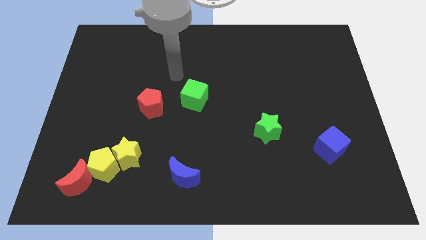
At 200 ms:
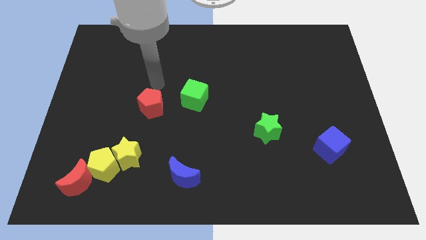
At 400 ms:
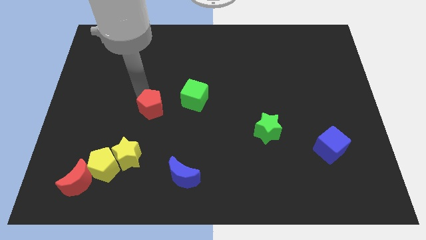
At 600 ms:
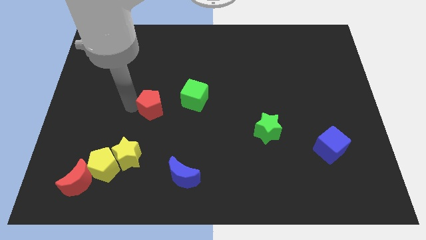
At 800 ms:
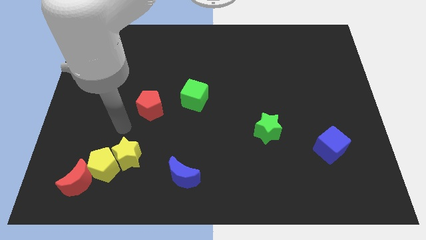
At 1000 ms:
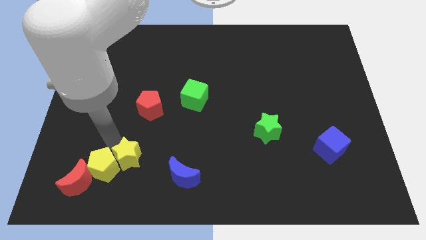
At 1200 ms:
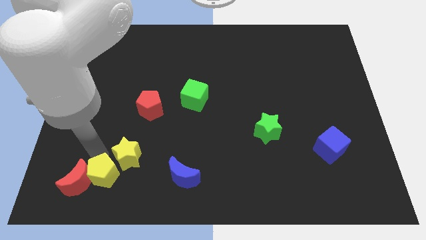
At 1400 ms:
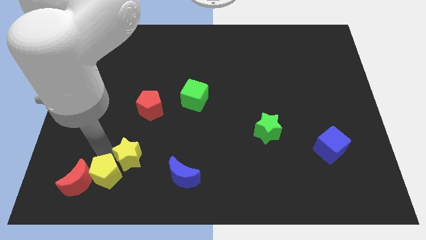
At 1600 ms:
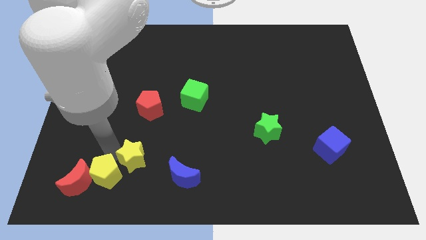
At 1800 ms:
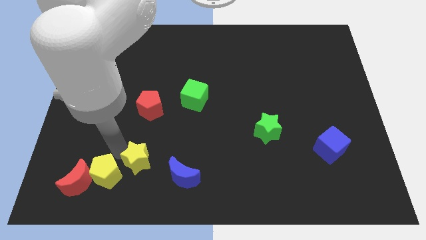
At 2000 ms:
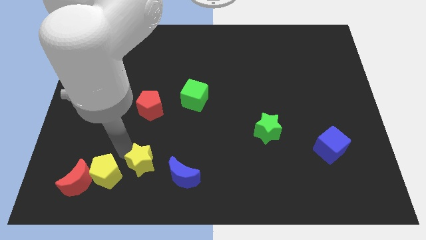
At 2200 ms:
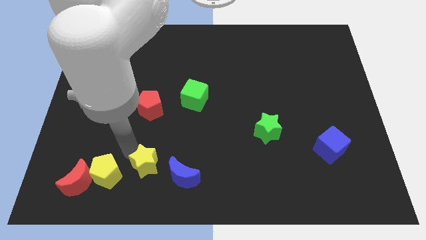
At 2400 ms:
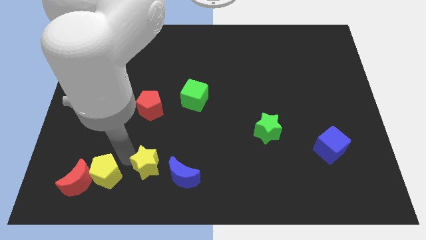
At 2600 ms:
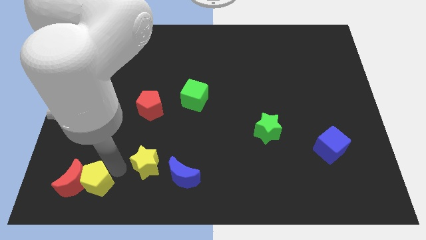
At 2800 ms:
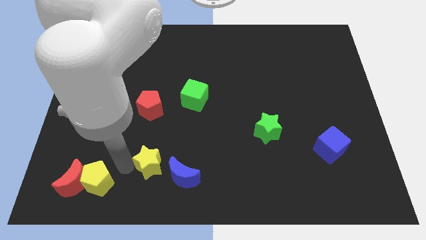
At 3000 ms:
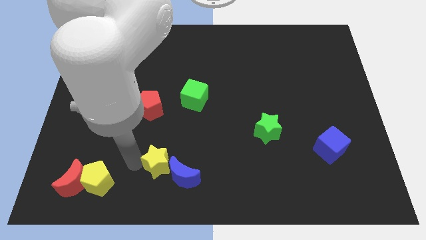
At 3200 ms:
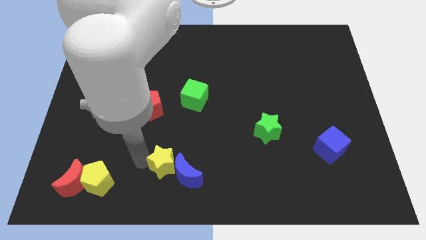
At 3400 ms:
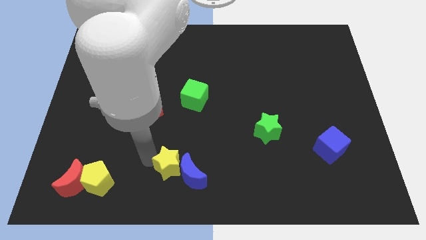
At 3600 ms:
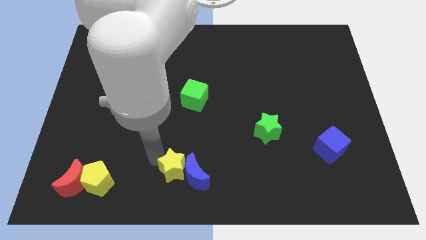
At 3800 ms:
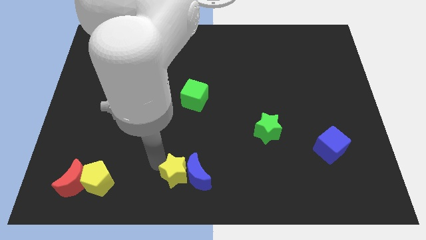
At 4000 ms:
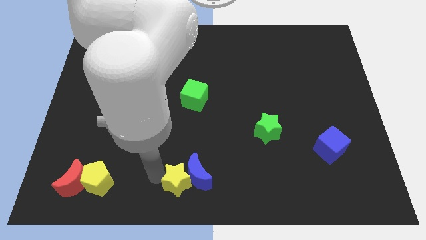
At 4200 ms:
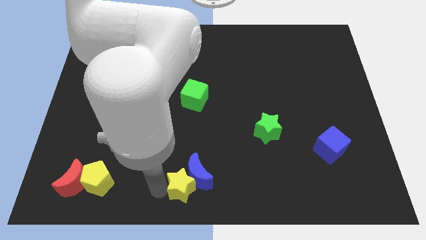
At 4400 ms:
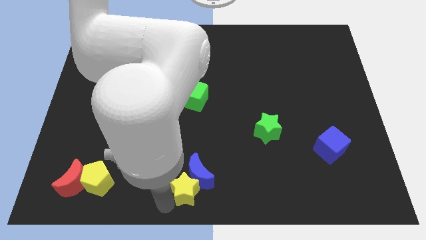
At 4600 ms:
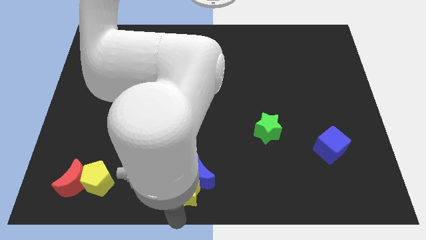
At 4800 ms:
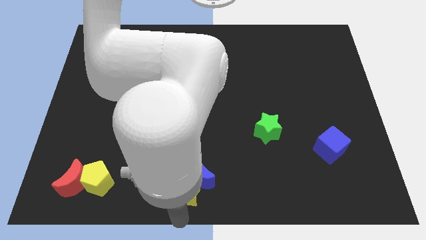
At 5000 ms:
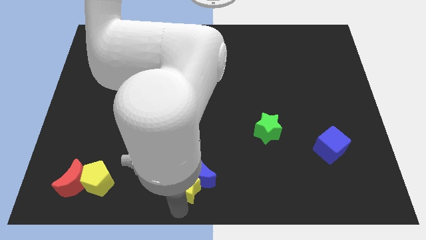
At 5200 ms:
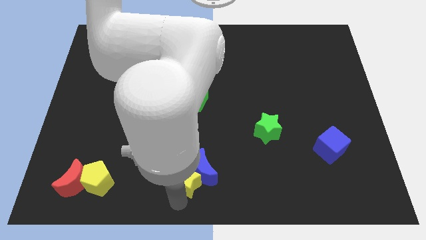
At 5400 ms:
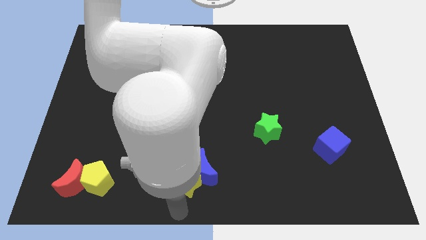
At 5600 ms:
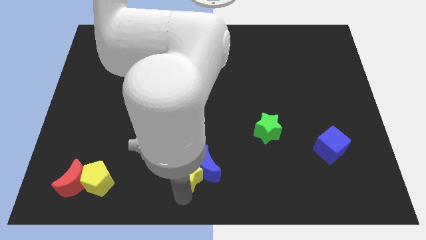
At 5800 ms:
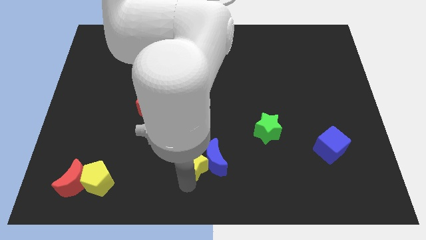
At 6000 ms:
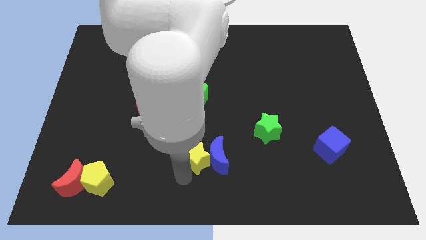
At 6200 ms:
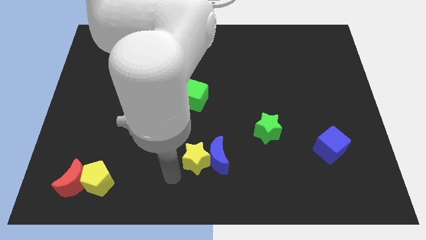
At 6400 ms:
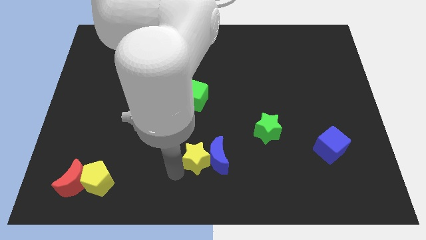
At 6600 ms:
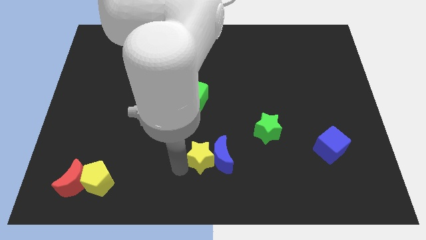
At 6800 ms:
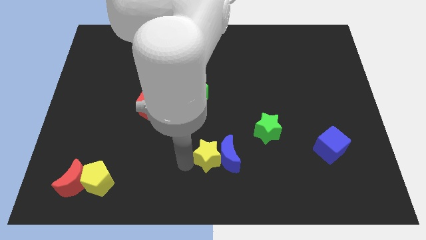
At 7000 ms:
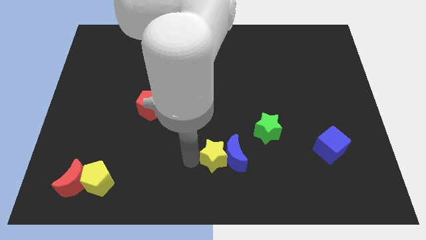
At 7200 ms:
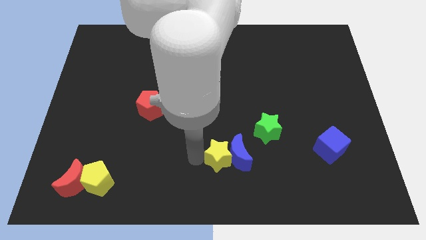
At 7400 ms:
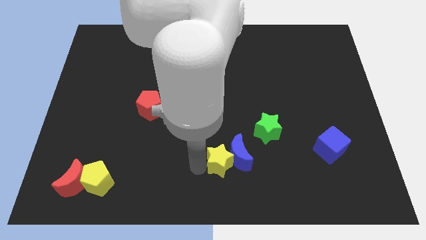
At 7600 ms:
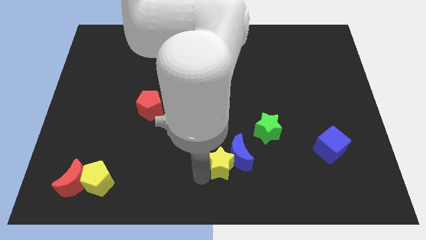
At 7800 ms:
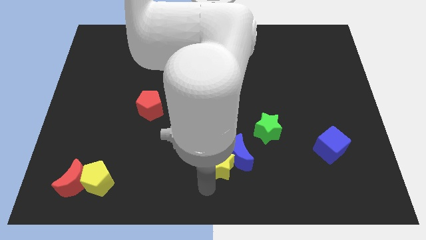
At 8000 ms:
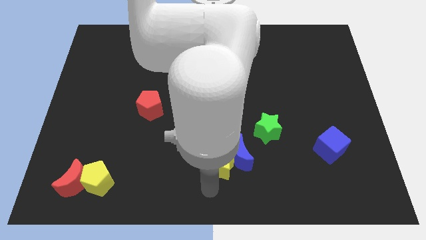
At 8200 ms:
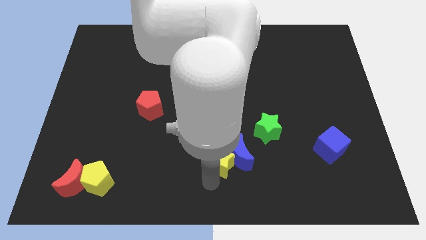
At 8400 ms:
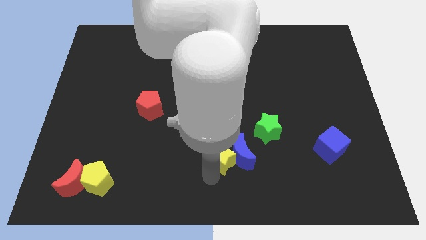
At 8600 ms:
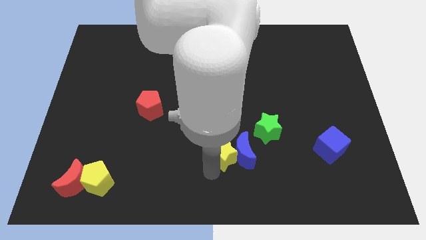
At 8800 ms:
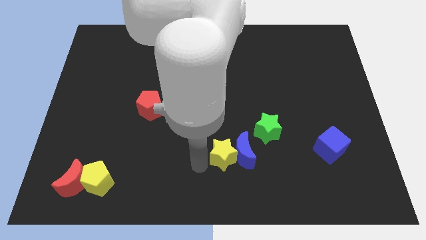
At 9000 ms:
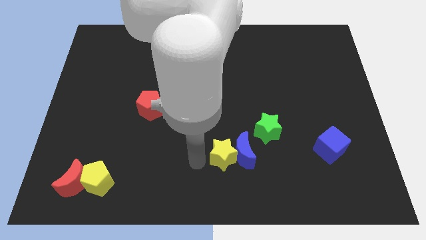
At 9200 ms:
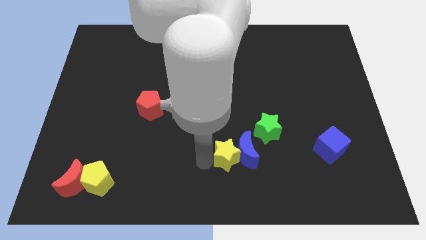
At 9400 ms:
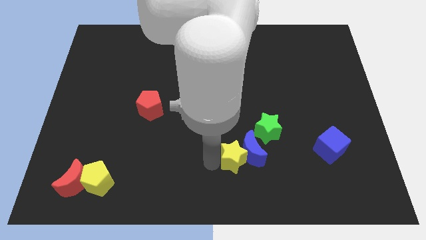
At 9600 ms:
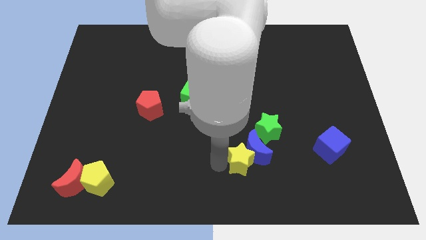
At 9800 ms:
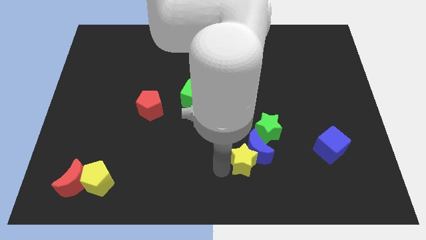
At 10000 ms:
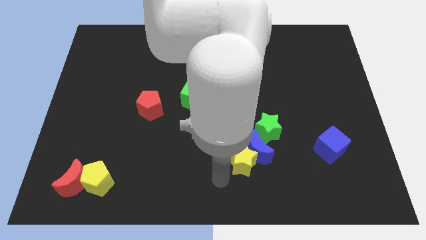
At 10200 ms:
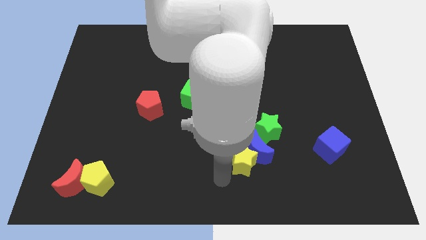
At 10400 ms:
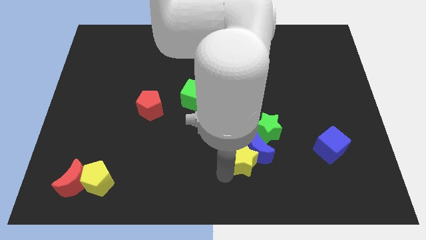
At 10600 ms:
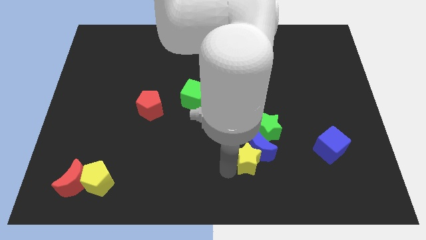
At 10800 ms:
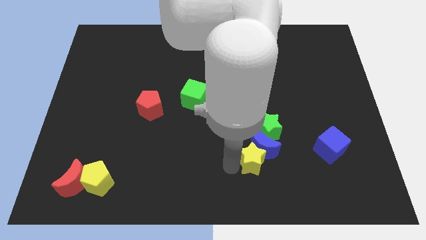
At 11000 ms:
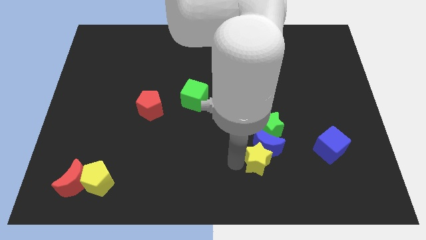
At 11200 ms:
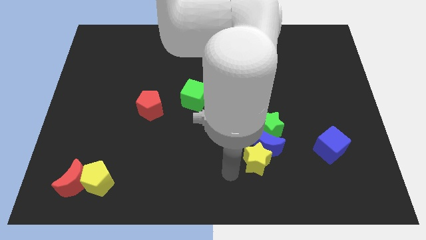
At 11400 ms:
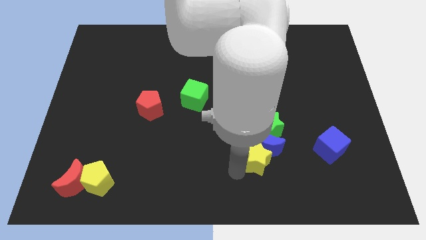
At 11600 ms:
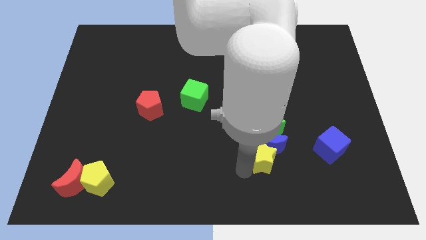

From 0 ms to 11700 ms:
slide the yellow star left of the blue cube

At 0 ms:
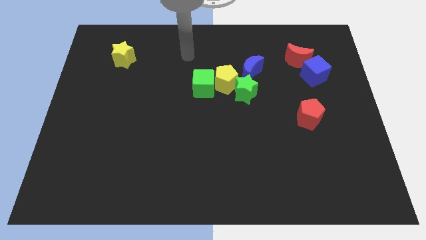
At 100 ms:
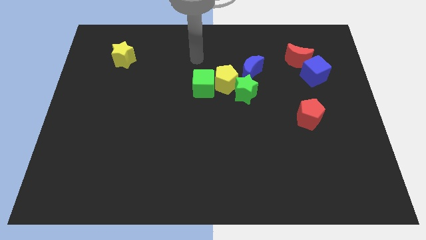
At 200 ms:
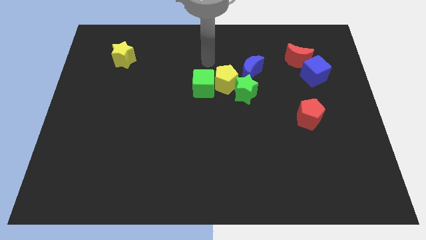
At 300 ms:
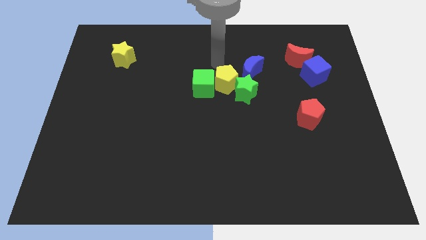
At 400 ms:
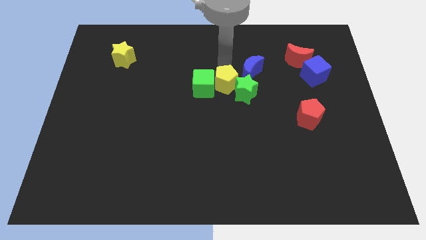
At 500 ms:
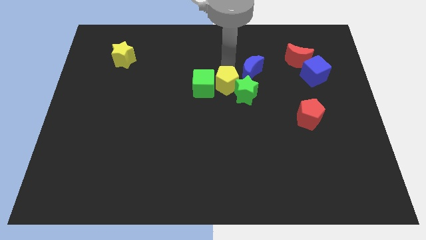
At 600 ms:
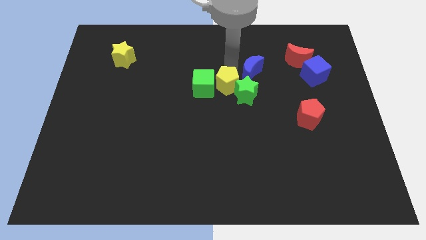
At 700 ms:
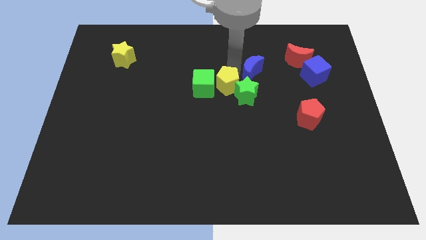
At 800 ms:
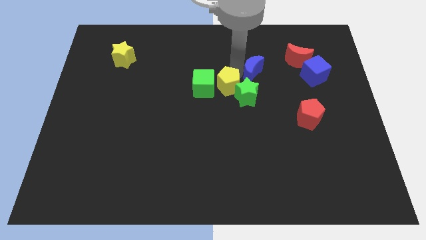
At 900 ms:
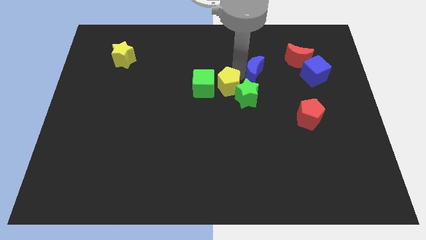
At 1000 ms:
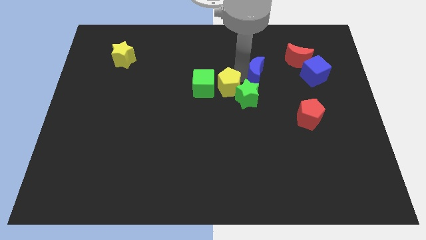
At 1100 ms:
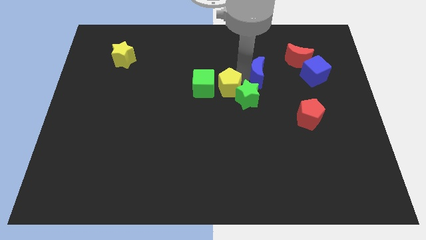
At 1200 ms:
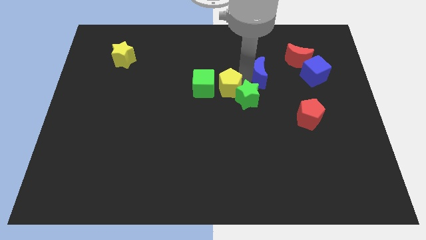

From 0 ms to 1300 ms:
move the blue moon diagonally down and to the left of the red moon

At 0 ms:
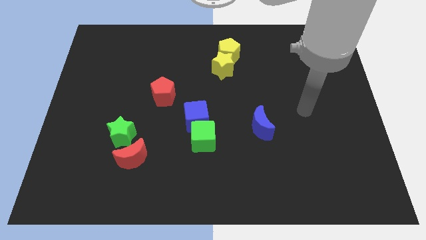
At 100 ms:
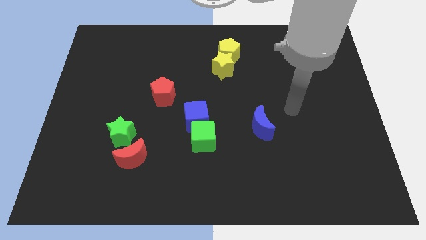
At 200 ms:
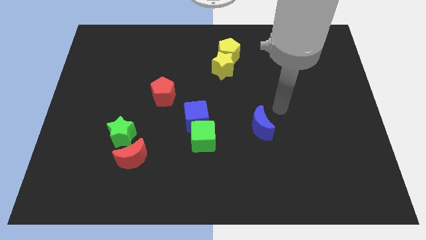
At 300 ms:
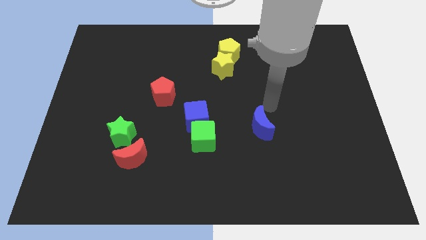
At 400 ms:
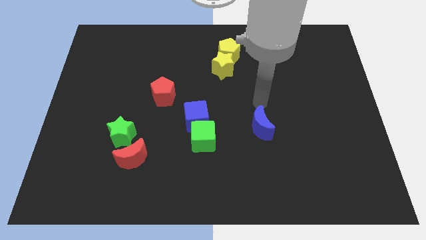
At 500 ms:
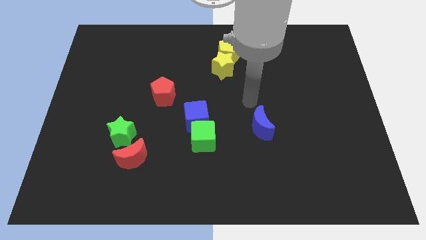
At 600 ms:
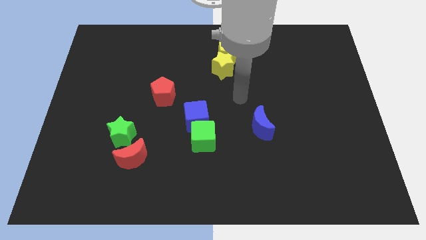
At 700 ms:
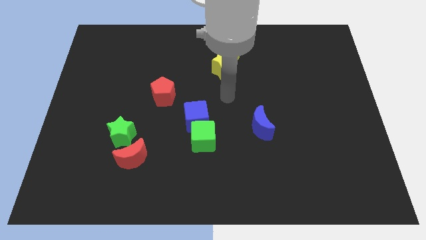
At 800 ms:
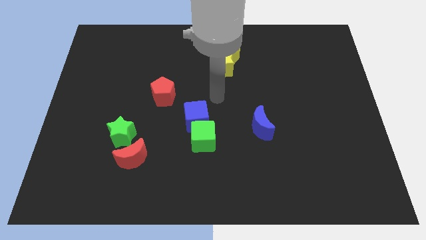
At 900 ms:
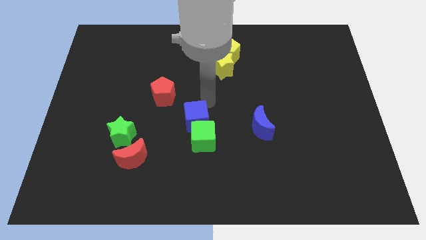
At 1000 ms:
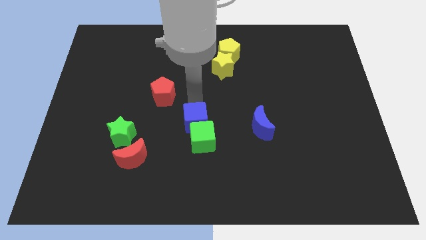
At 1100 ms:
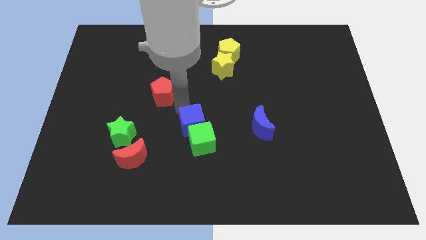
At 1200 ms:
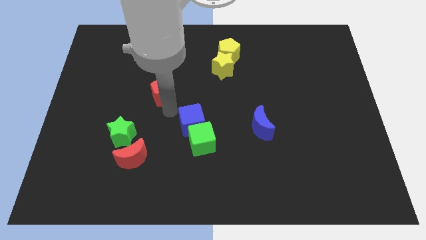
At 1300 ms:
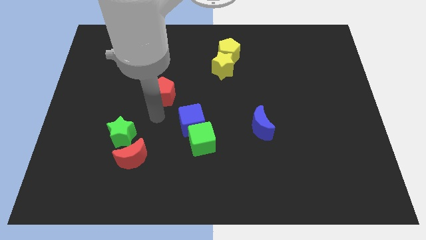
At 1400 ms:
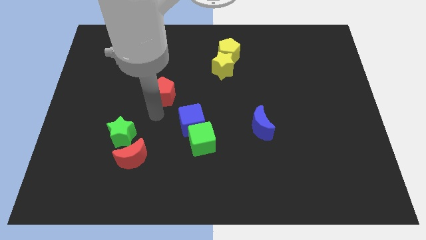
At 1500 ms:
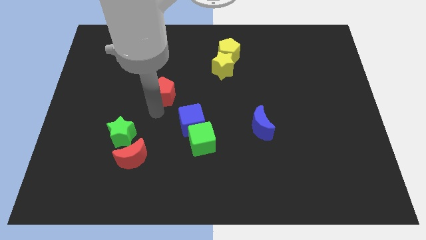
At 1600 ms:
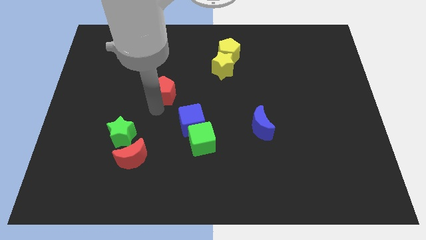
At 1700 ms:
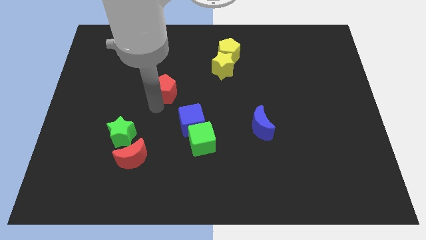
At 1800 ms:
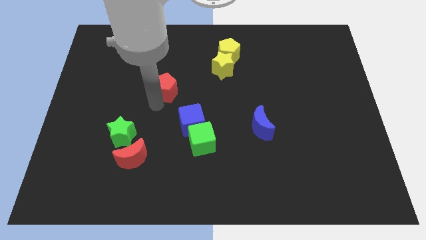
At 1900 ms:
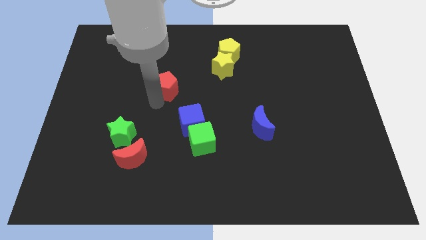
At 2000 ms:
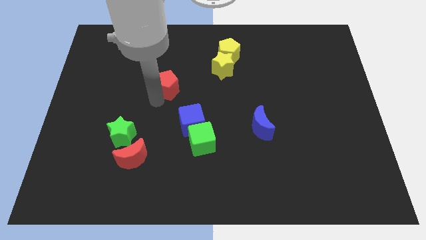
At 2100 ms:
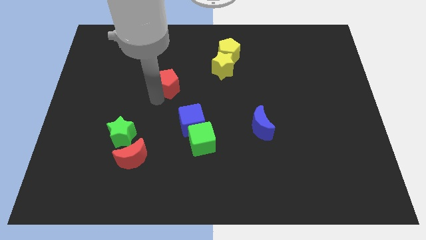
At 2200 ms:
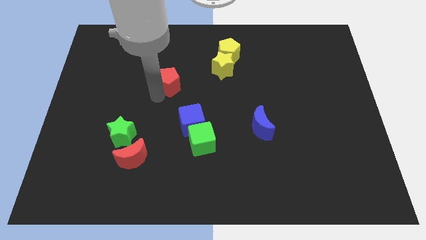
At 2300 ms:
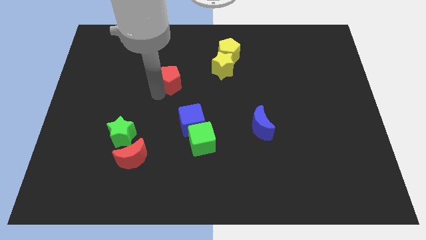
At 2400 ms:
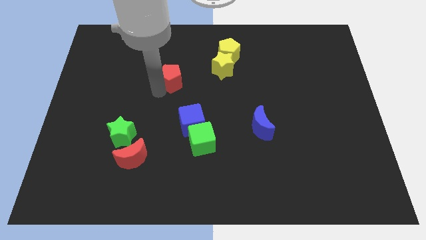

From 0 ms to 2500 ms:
move the red pentagon to the left of the yellow star
